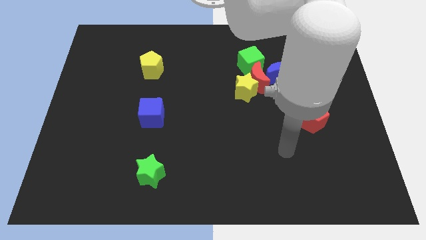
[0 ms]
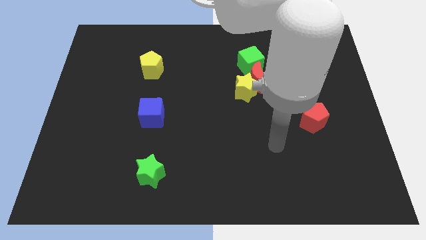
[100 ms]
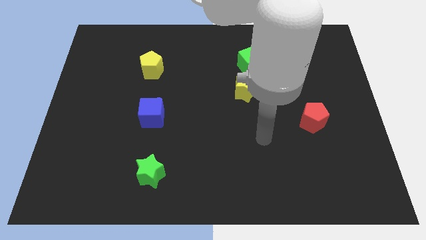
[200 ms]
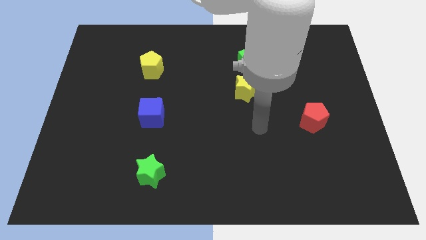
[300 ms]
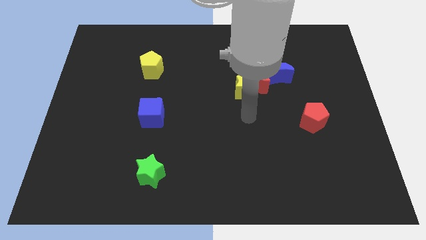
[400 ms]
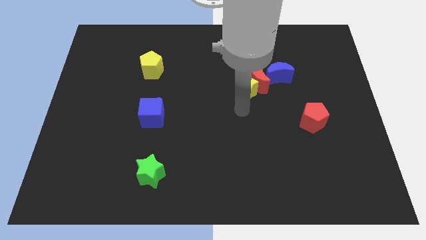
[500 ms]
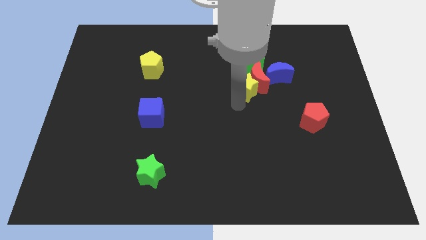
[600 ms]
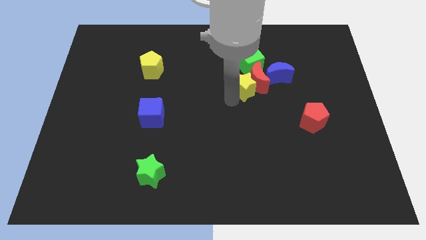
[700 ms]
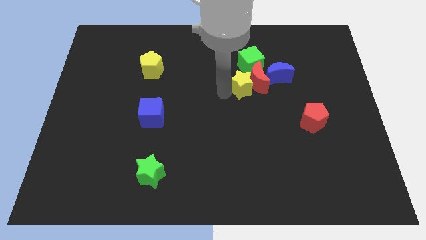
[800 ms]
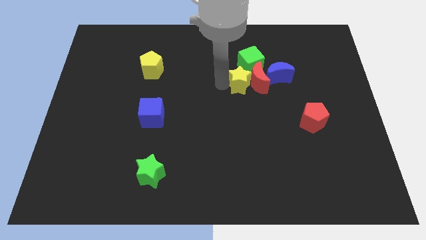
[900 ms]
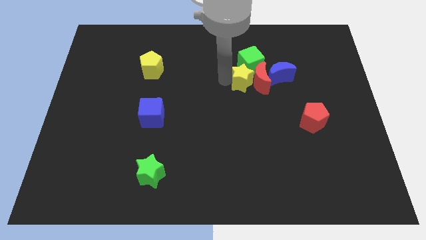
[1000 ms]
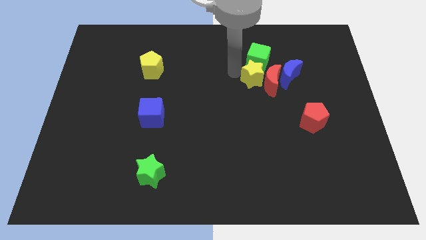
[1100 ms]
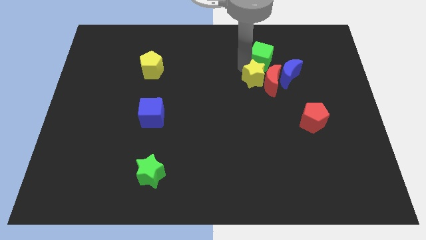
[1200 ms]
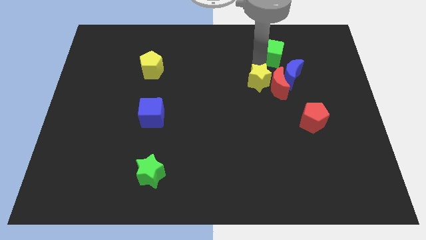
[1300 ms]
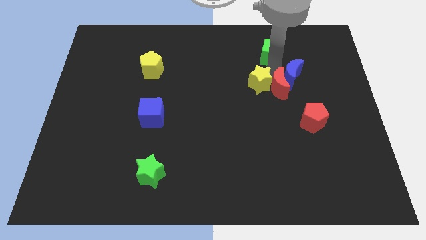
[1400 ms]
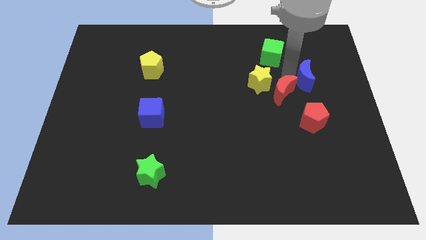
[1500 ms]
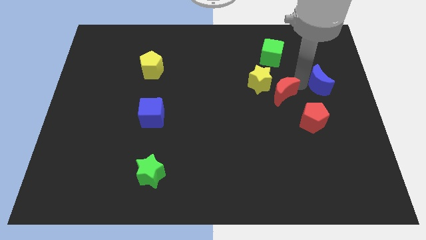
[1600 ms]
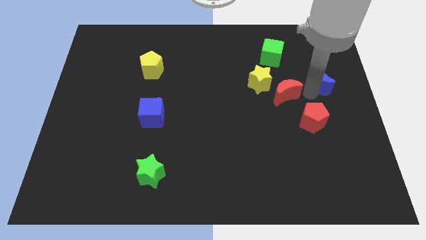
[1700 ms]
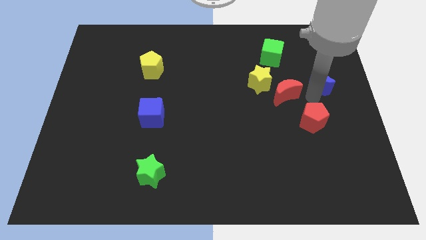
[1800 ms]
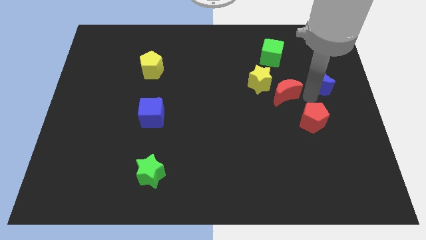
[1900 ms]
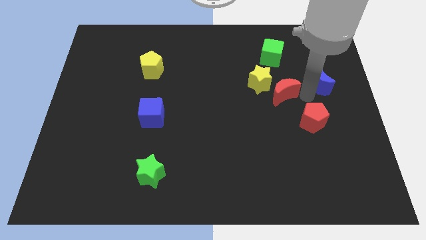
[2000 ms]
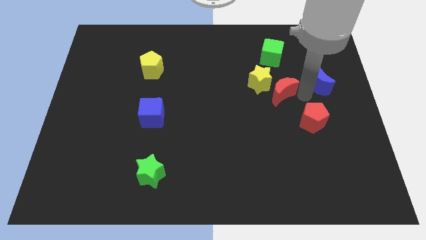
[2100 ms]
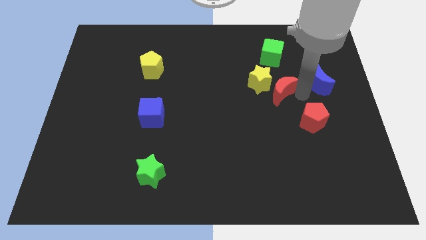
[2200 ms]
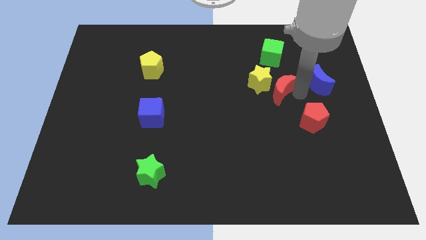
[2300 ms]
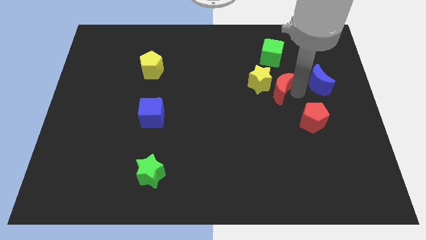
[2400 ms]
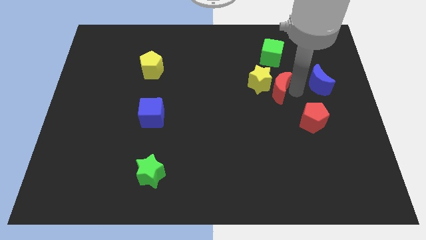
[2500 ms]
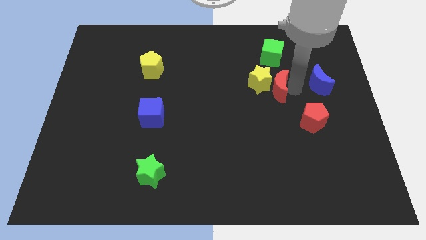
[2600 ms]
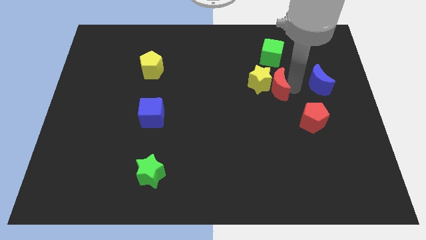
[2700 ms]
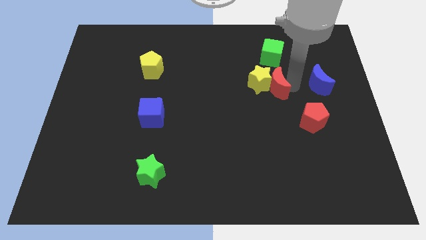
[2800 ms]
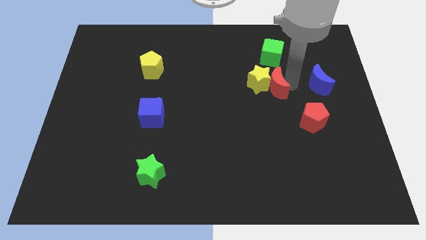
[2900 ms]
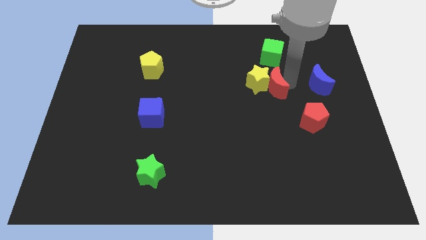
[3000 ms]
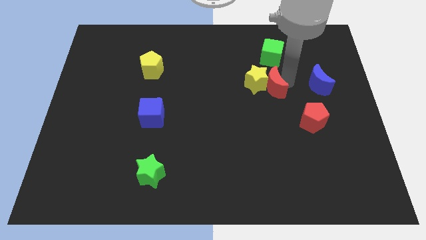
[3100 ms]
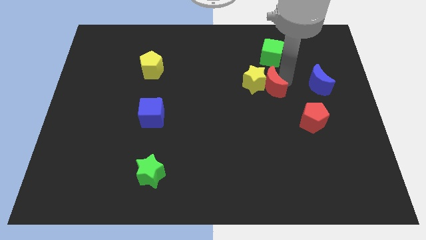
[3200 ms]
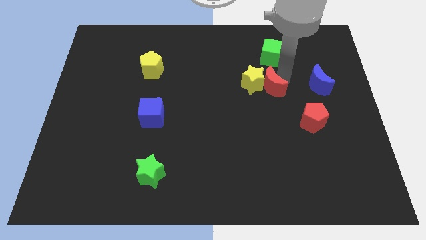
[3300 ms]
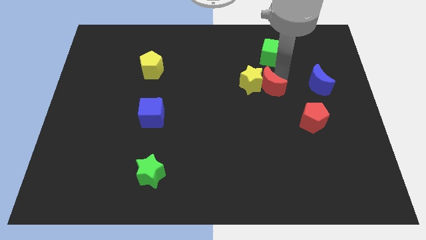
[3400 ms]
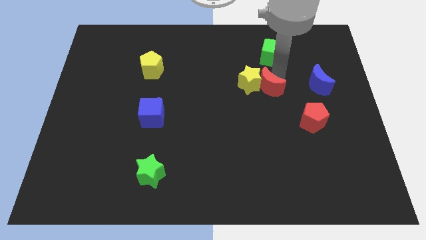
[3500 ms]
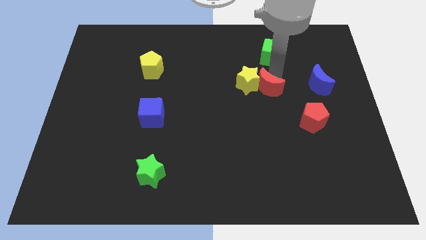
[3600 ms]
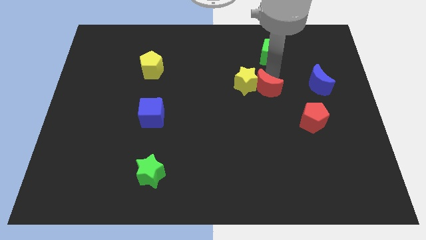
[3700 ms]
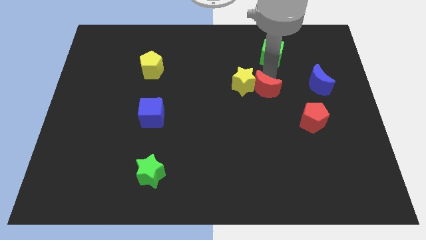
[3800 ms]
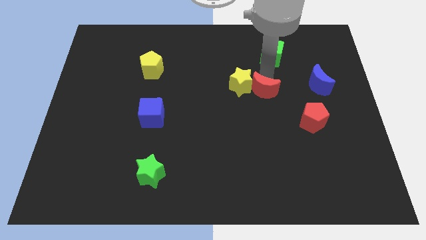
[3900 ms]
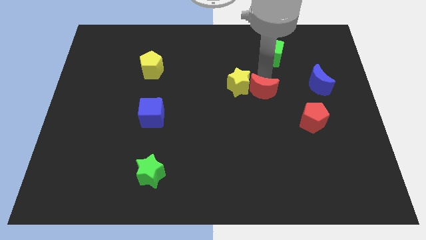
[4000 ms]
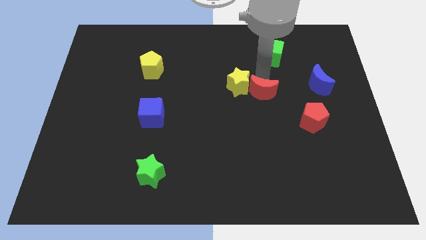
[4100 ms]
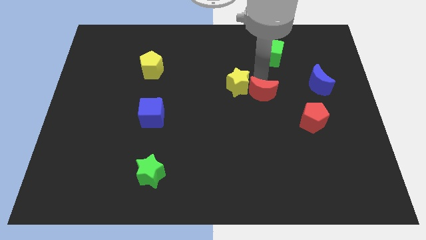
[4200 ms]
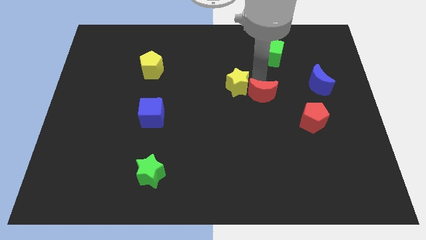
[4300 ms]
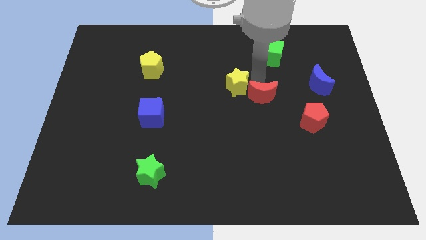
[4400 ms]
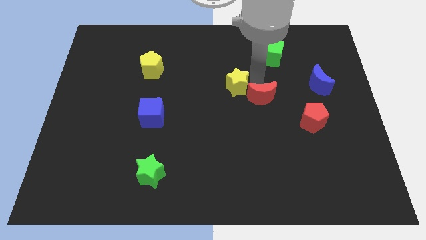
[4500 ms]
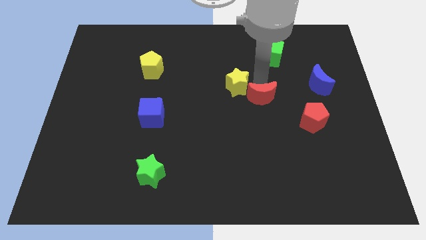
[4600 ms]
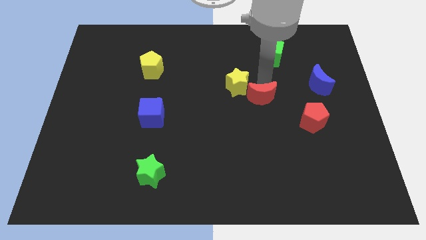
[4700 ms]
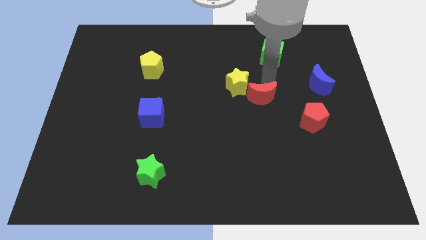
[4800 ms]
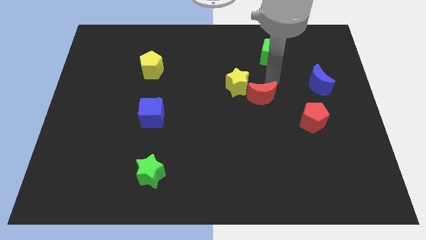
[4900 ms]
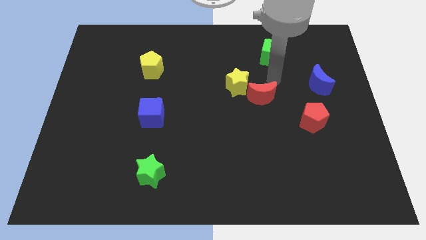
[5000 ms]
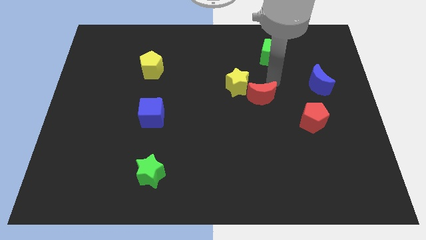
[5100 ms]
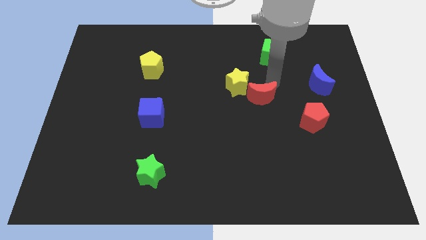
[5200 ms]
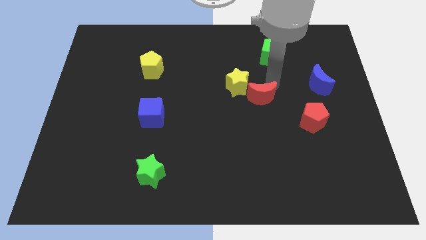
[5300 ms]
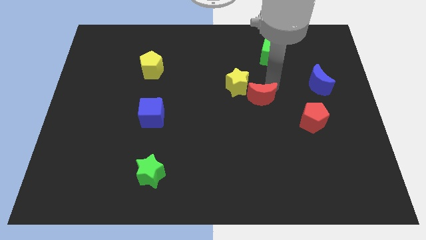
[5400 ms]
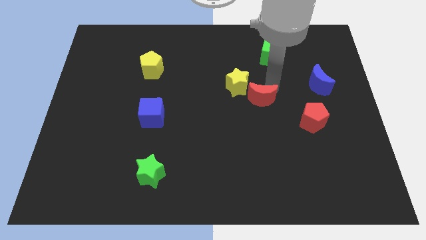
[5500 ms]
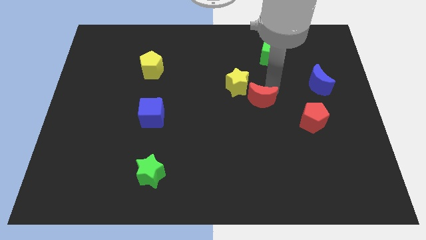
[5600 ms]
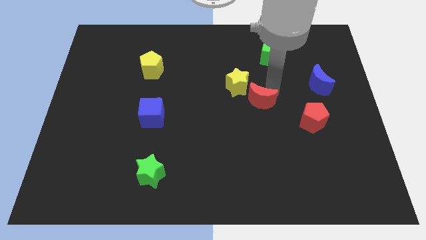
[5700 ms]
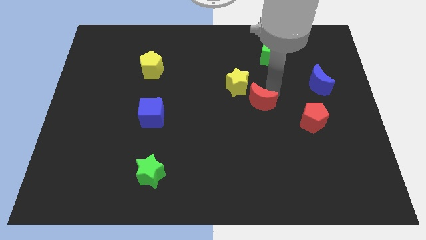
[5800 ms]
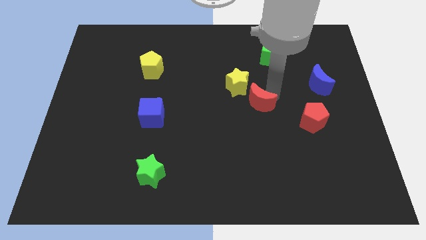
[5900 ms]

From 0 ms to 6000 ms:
pull the red moon apart from the group of blocks

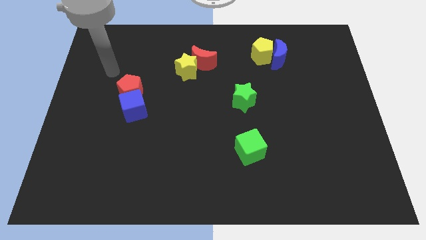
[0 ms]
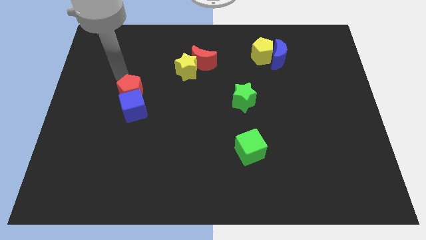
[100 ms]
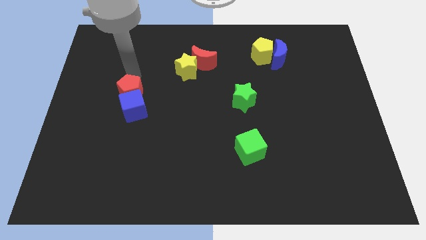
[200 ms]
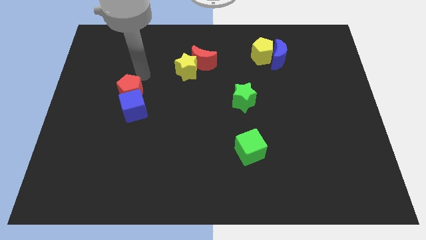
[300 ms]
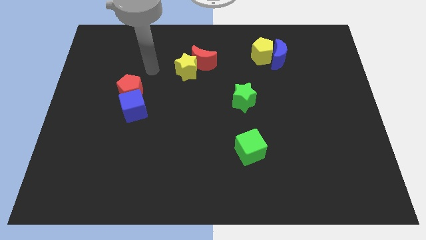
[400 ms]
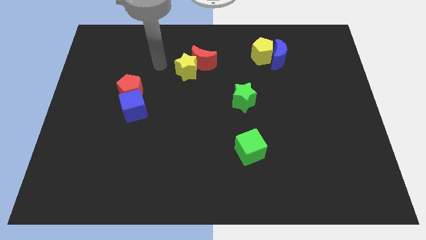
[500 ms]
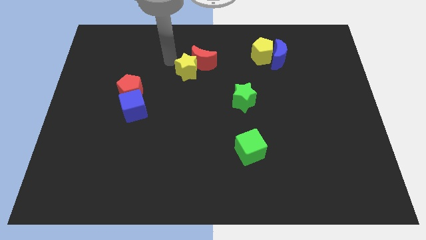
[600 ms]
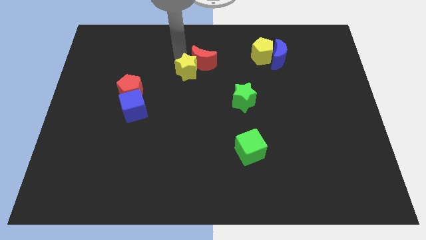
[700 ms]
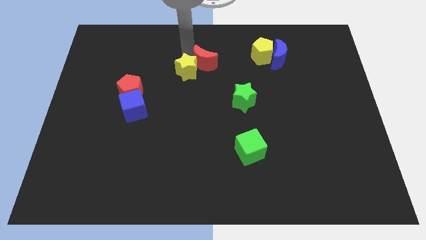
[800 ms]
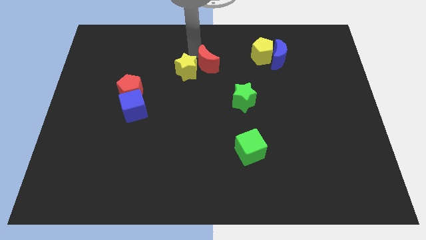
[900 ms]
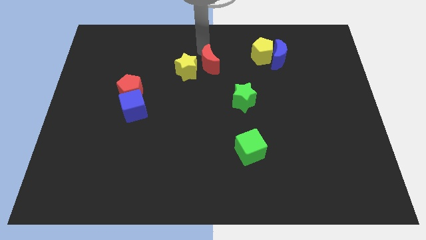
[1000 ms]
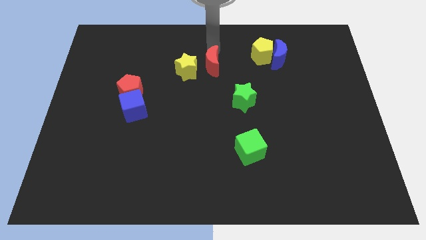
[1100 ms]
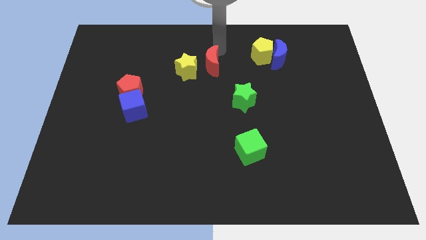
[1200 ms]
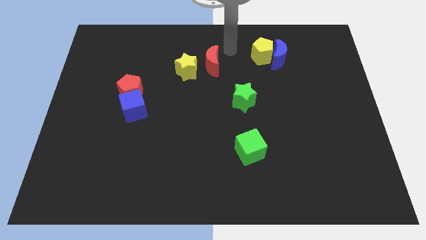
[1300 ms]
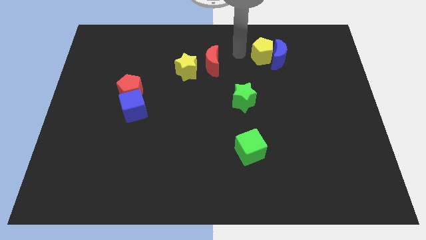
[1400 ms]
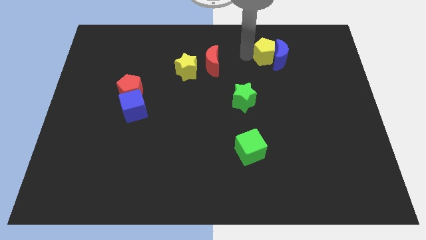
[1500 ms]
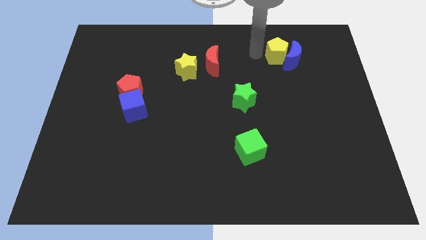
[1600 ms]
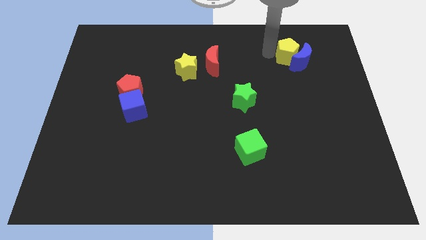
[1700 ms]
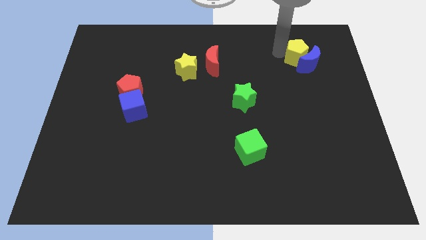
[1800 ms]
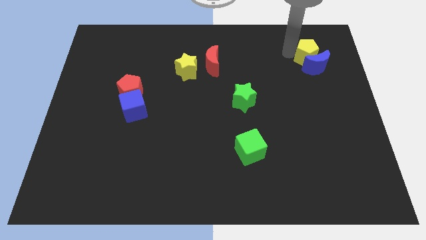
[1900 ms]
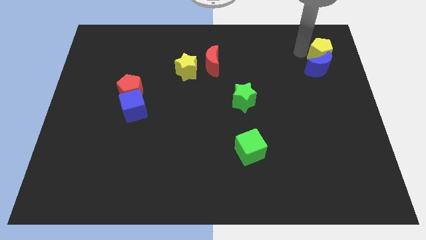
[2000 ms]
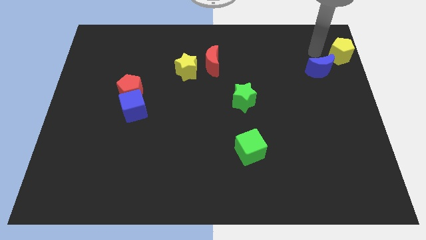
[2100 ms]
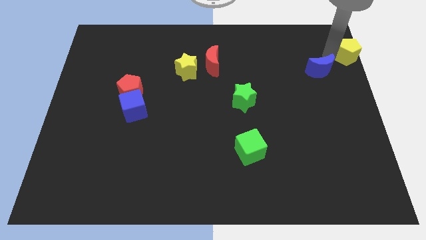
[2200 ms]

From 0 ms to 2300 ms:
move the blue moon away from the yellow pentagon

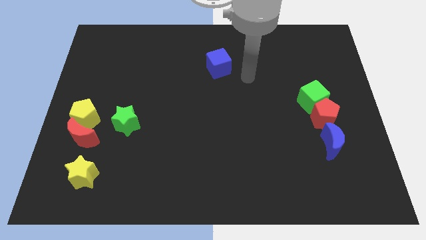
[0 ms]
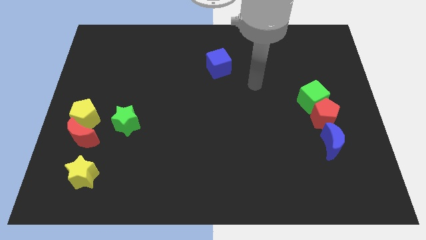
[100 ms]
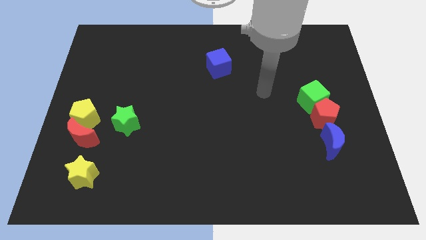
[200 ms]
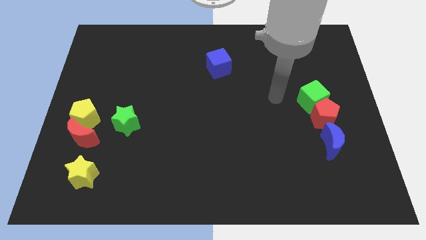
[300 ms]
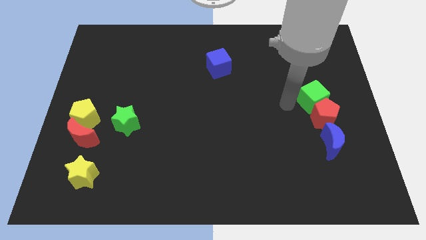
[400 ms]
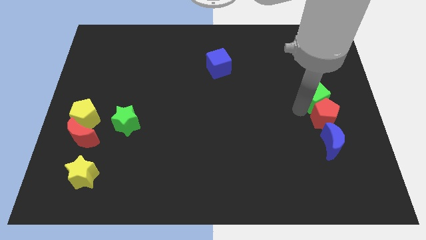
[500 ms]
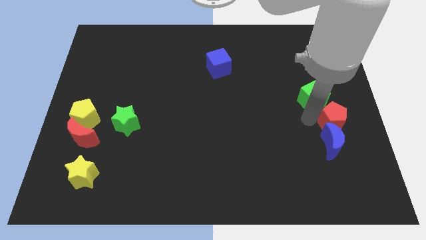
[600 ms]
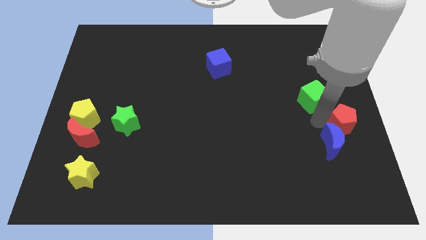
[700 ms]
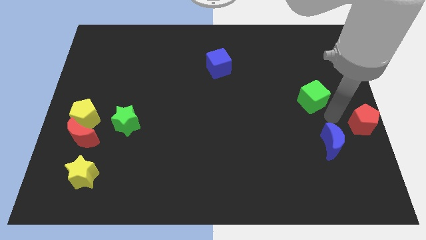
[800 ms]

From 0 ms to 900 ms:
pull the green cube apart from the red pentagon
